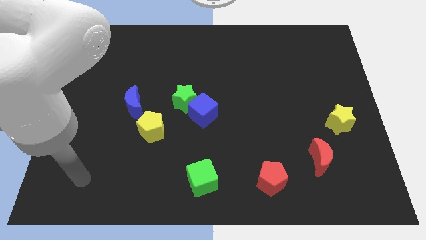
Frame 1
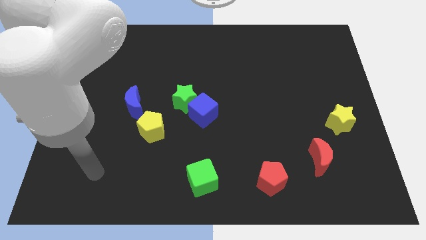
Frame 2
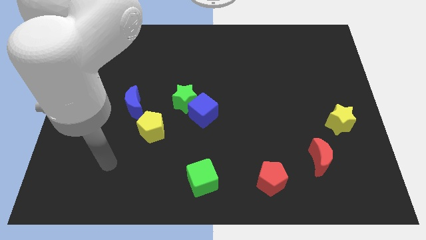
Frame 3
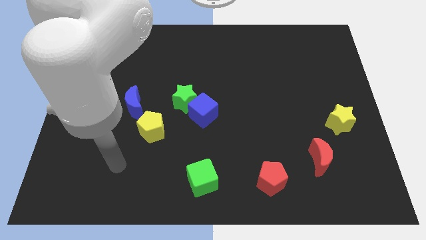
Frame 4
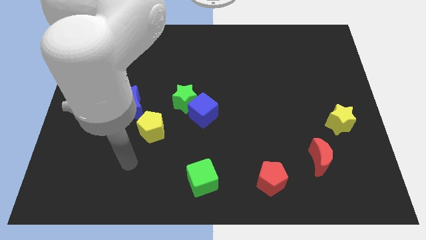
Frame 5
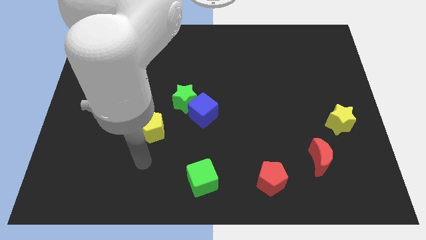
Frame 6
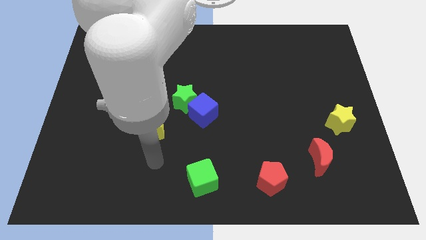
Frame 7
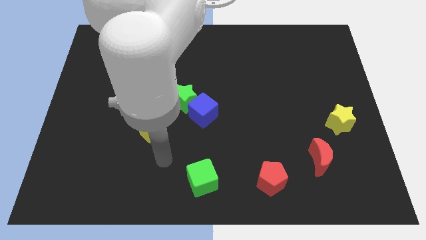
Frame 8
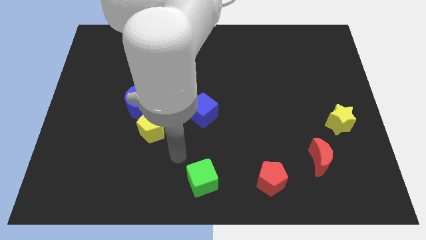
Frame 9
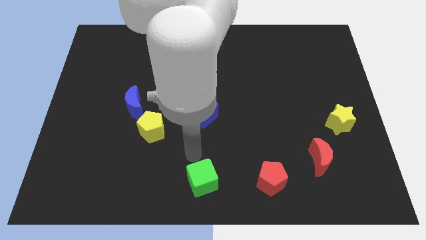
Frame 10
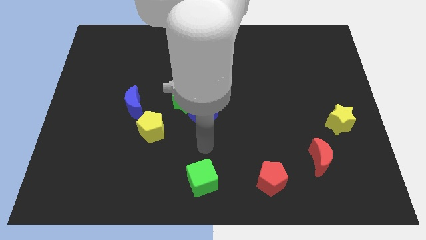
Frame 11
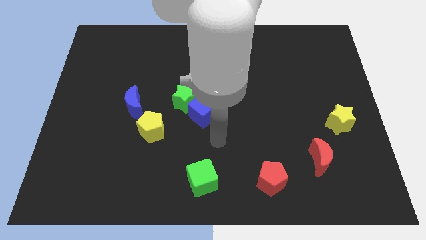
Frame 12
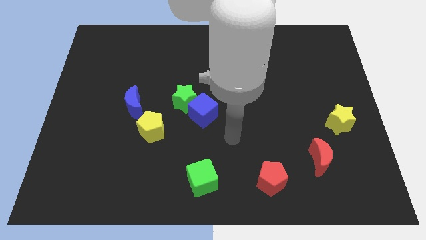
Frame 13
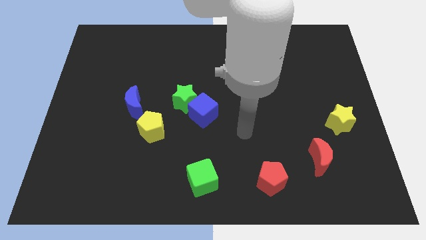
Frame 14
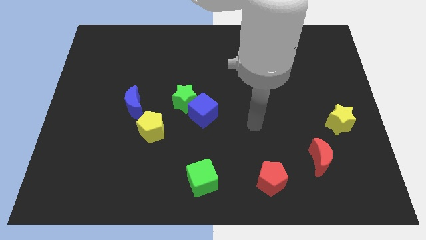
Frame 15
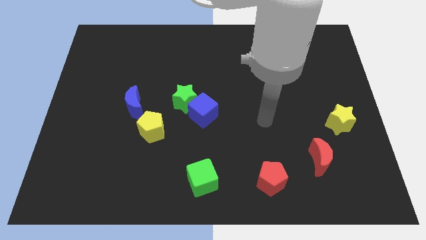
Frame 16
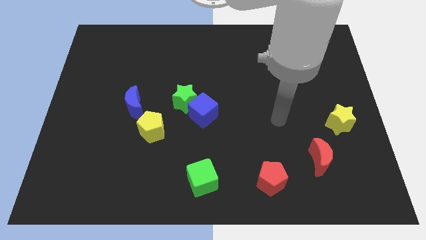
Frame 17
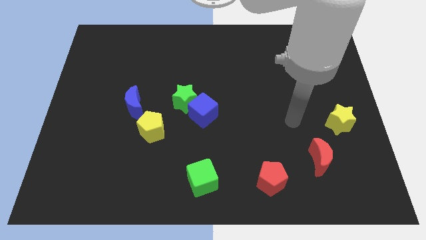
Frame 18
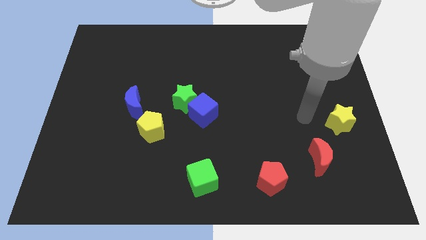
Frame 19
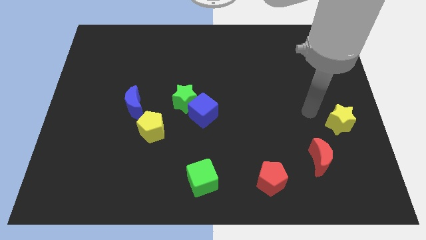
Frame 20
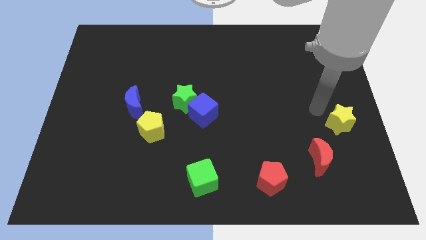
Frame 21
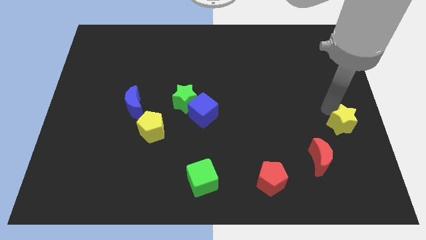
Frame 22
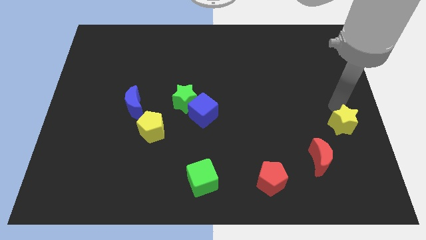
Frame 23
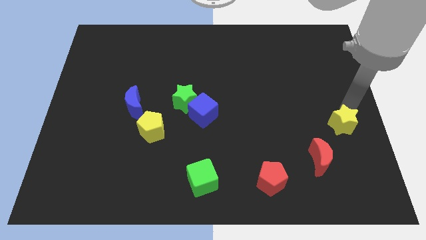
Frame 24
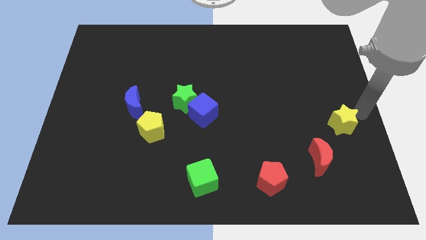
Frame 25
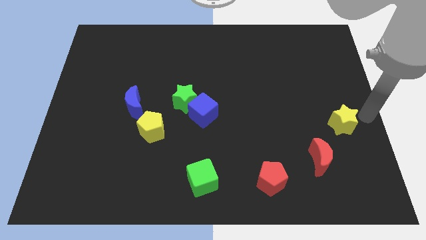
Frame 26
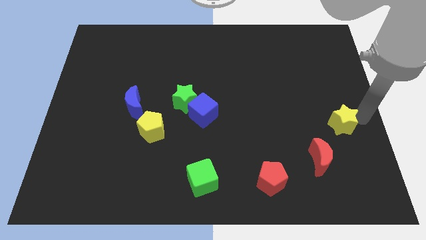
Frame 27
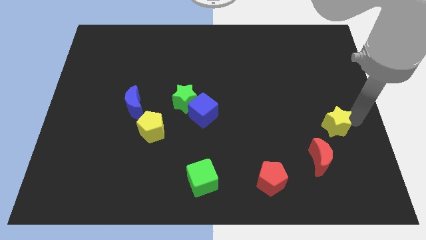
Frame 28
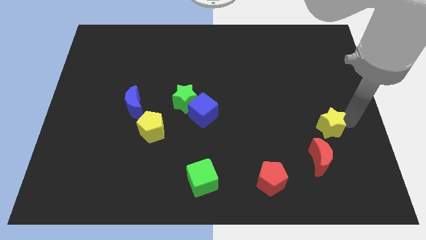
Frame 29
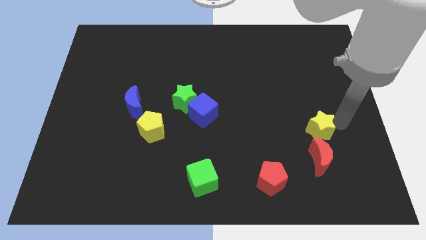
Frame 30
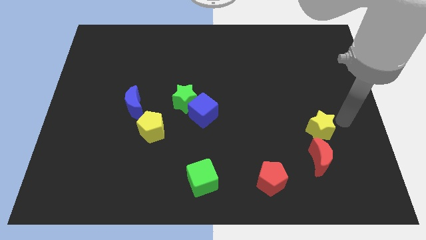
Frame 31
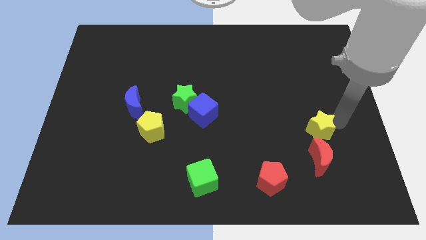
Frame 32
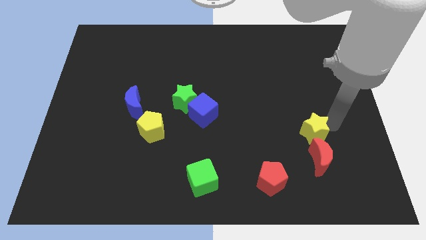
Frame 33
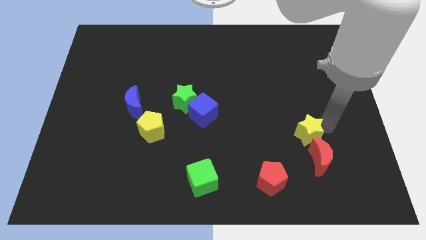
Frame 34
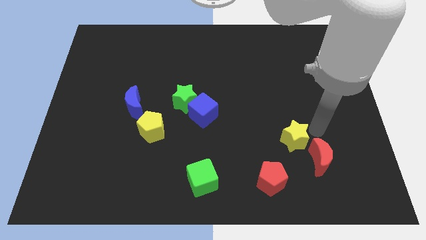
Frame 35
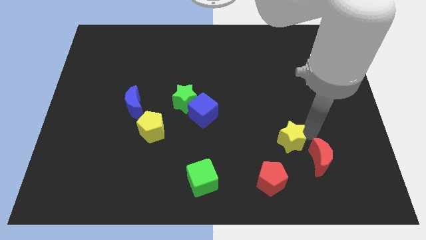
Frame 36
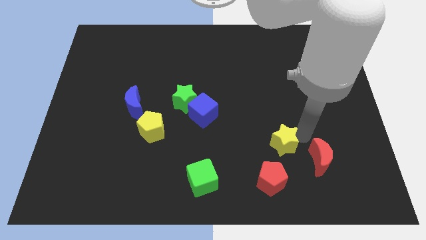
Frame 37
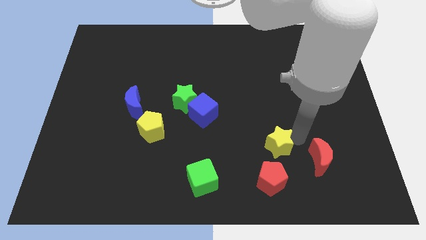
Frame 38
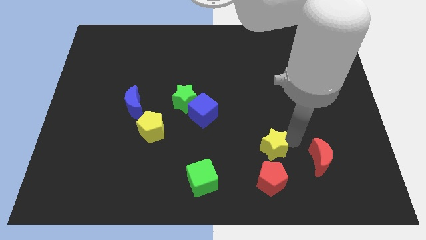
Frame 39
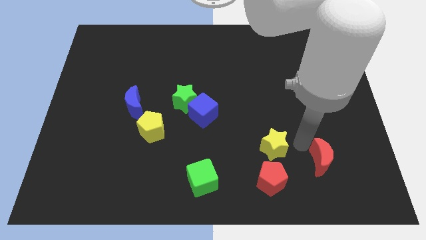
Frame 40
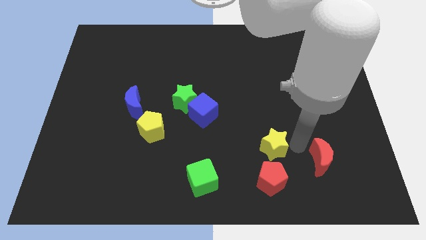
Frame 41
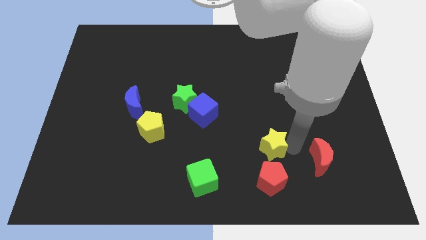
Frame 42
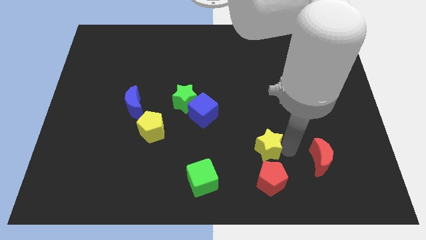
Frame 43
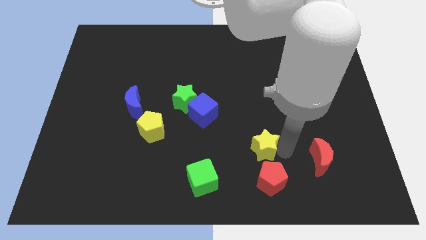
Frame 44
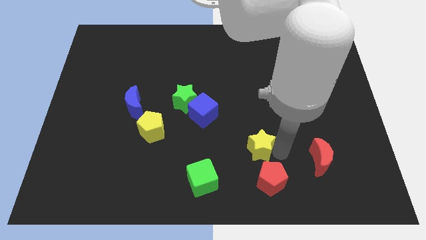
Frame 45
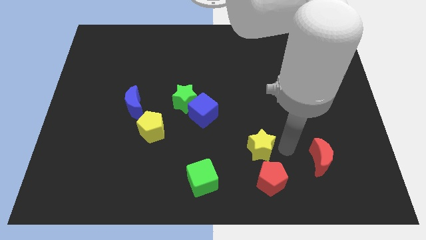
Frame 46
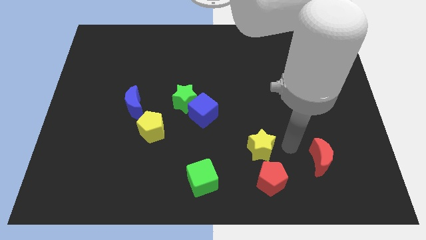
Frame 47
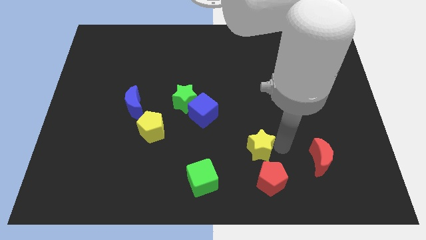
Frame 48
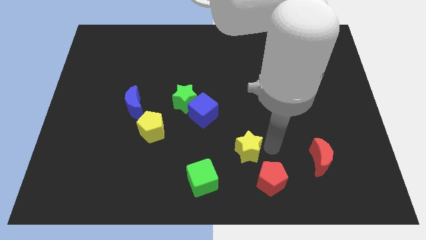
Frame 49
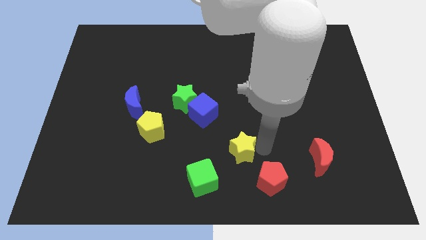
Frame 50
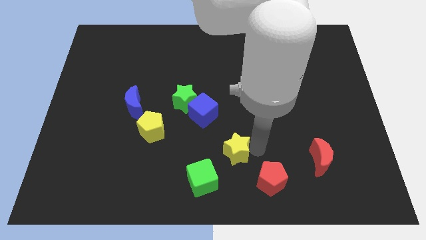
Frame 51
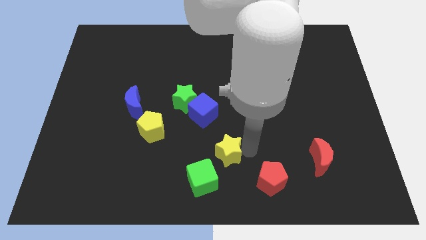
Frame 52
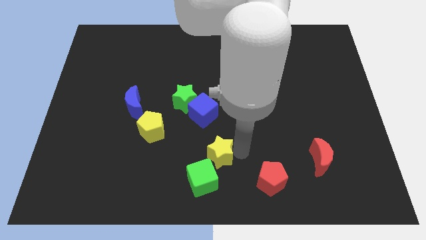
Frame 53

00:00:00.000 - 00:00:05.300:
slide the yellow star below the blue cube

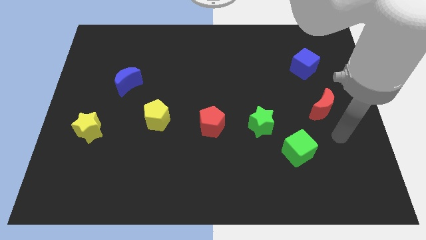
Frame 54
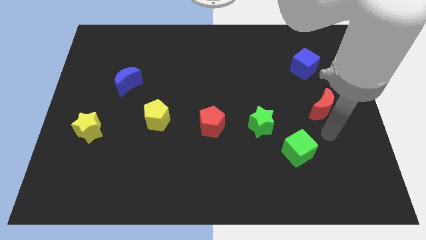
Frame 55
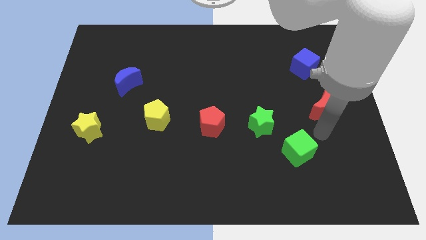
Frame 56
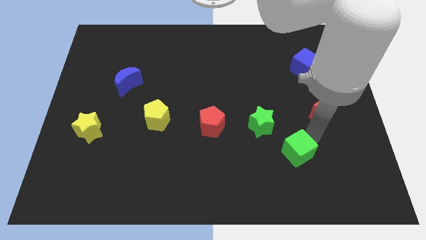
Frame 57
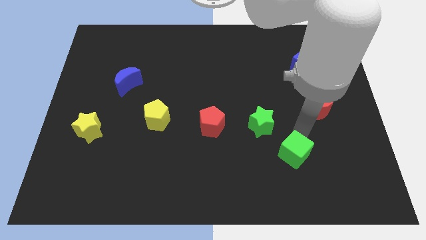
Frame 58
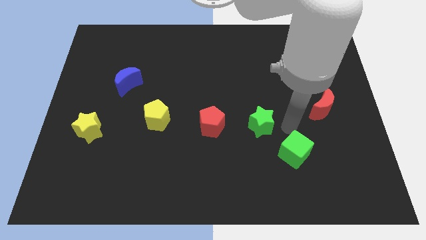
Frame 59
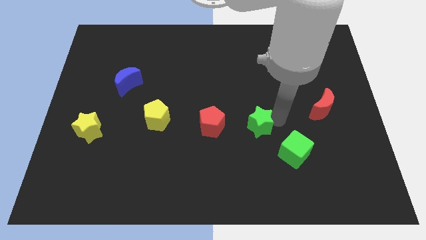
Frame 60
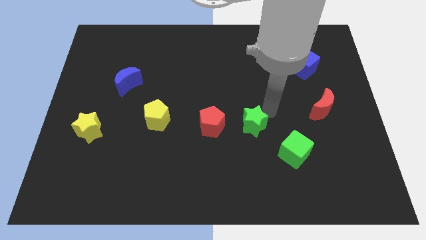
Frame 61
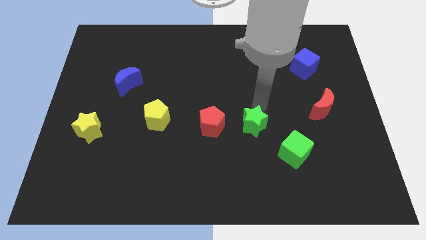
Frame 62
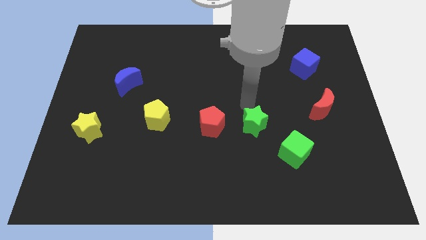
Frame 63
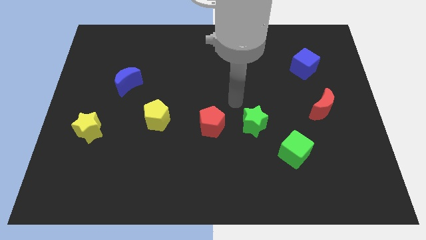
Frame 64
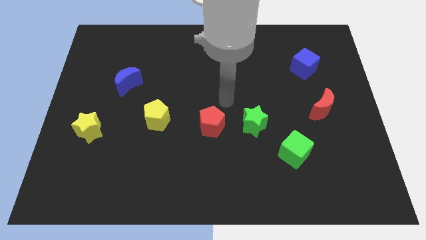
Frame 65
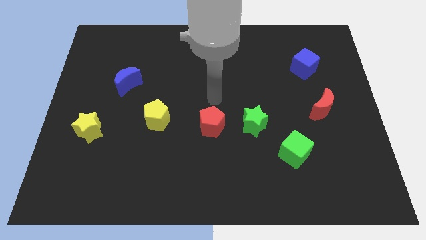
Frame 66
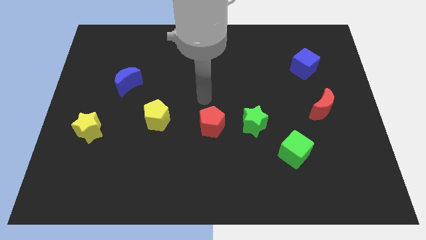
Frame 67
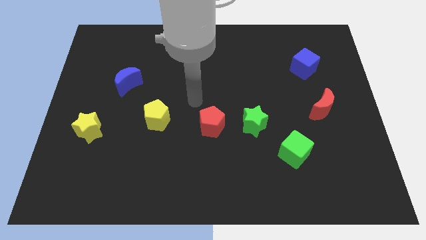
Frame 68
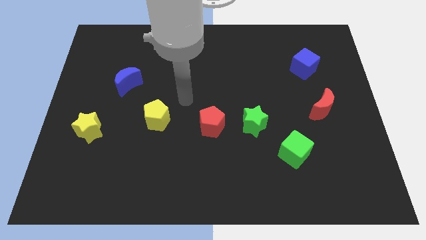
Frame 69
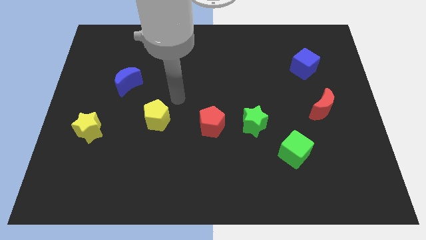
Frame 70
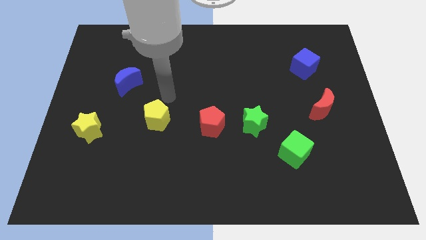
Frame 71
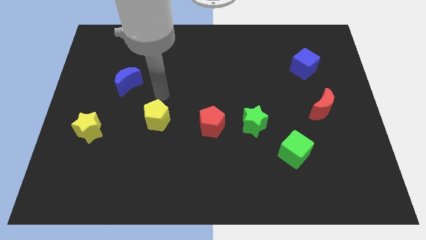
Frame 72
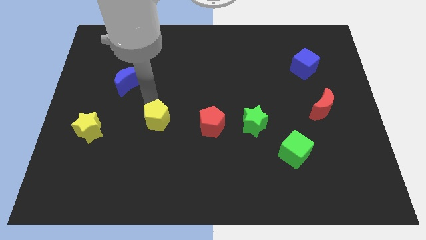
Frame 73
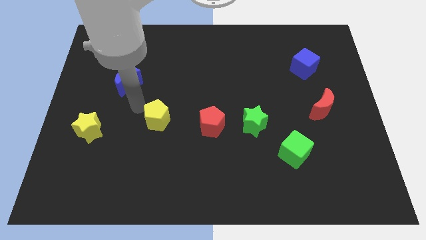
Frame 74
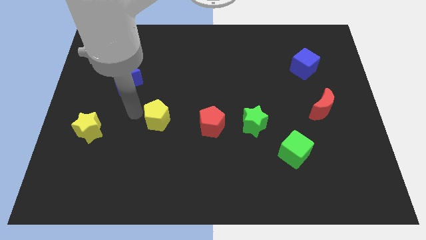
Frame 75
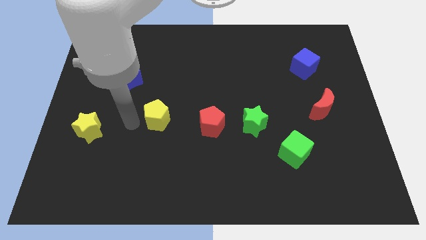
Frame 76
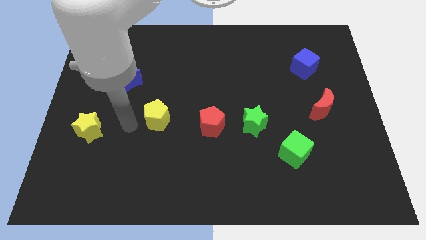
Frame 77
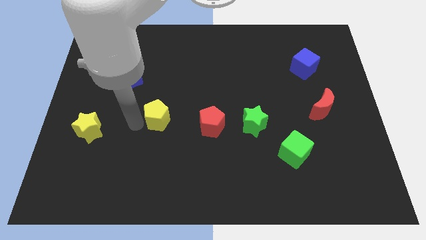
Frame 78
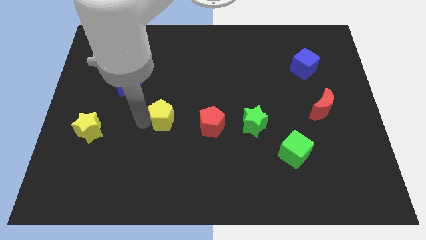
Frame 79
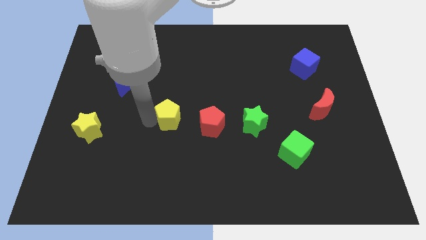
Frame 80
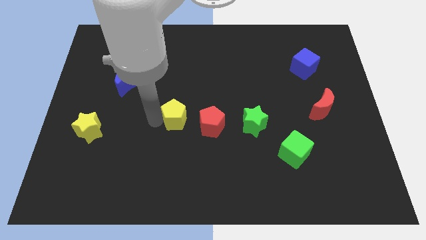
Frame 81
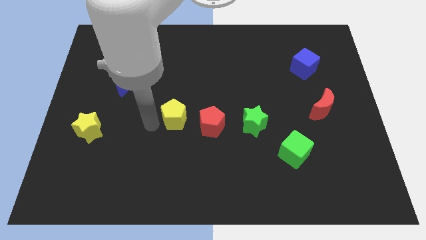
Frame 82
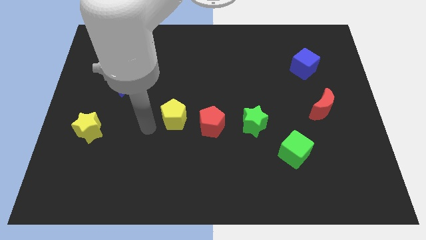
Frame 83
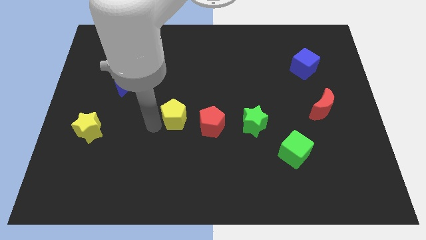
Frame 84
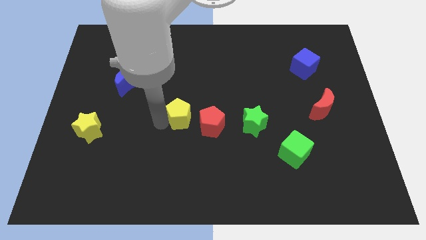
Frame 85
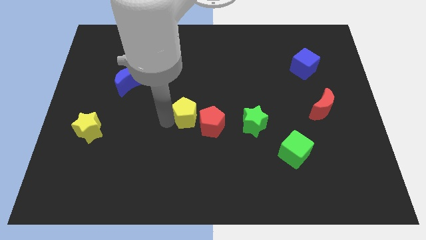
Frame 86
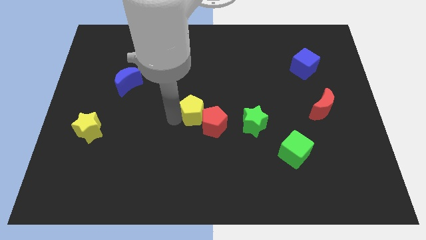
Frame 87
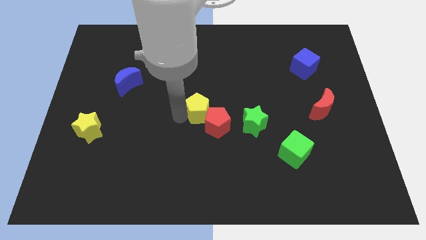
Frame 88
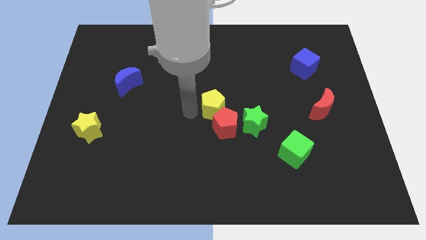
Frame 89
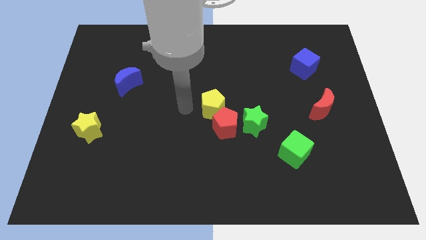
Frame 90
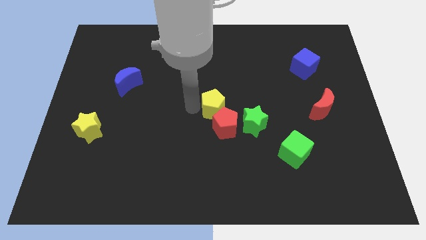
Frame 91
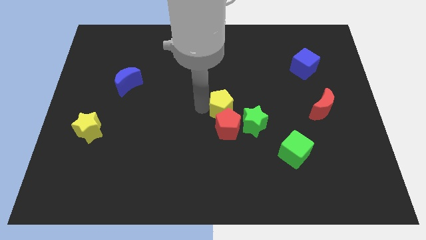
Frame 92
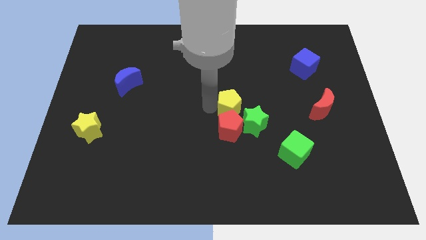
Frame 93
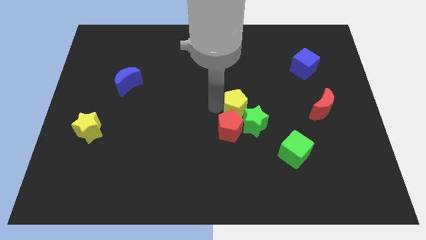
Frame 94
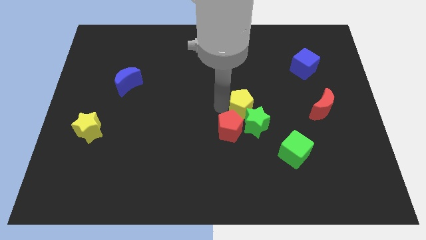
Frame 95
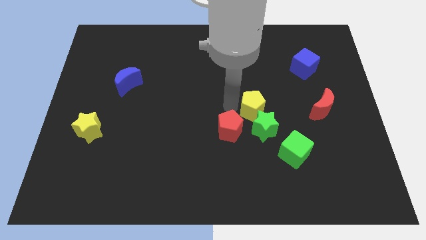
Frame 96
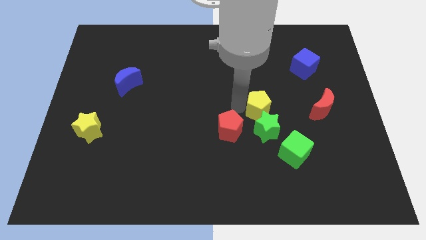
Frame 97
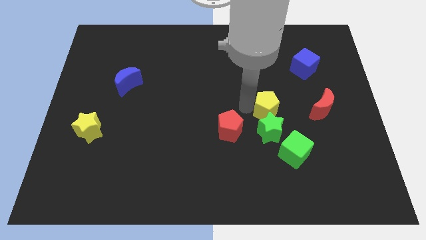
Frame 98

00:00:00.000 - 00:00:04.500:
put the yellow pentagon diagonally up and to the right of the green star
